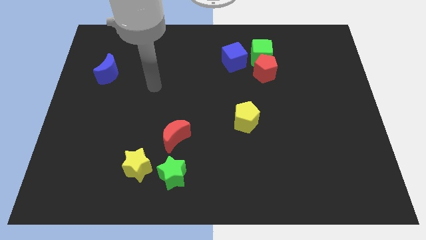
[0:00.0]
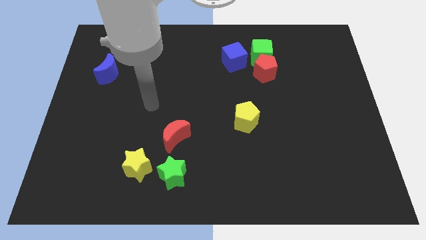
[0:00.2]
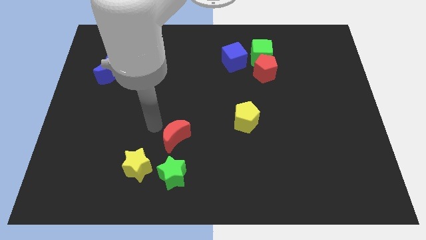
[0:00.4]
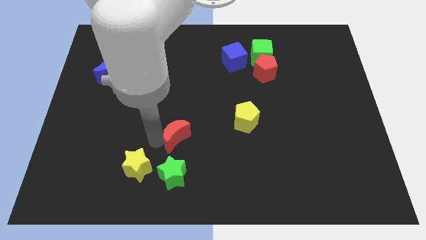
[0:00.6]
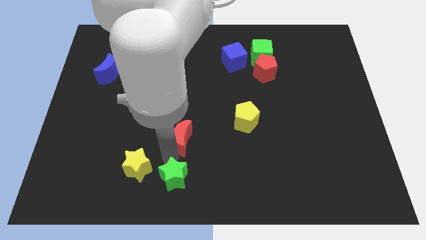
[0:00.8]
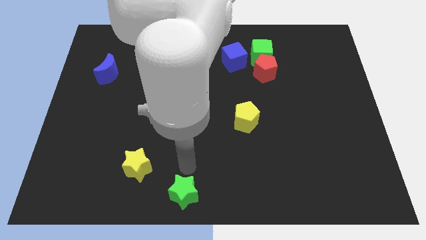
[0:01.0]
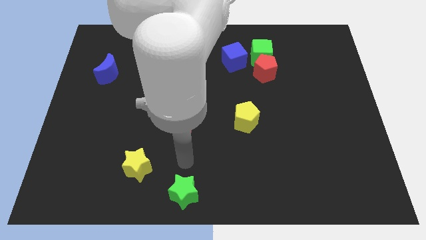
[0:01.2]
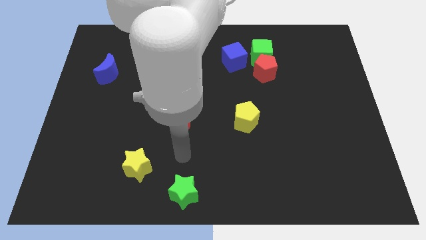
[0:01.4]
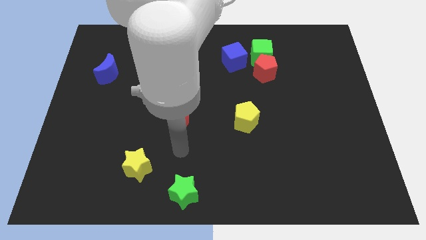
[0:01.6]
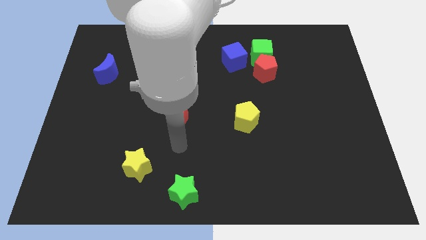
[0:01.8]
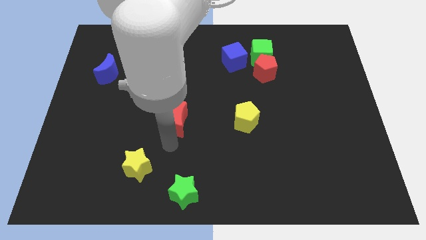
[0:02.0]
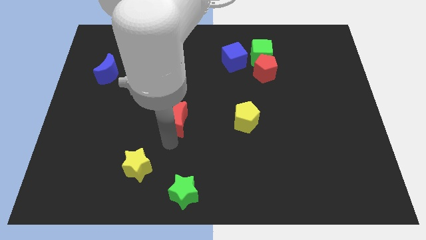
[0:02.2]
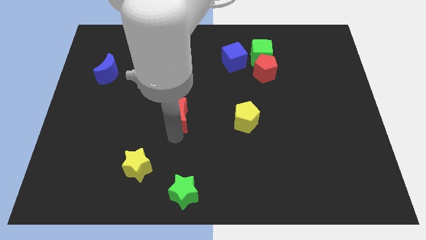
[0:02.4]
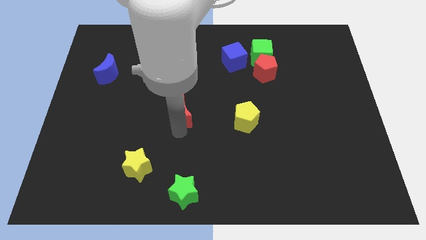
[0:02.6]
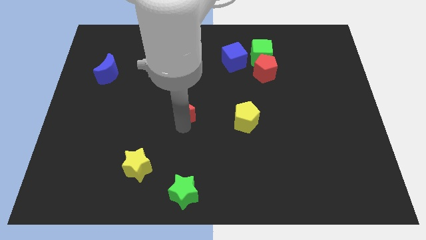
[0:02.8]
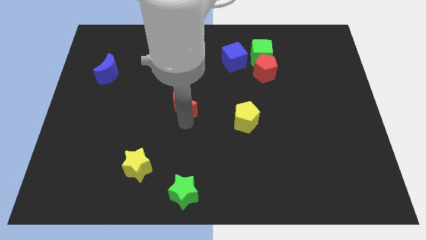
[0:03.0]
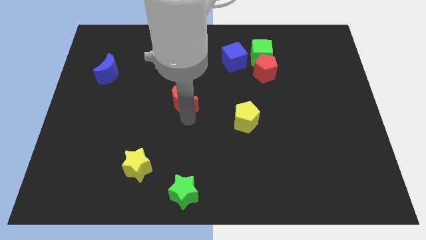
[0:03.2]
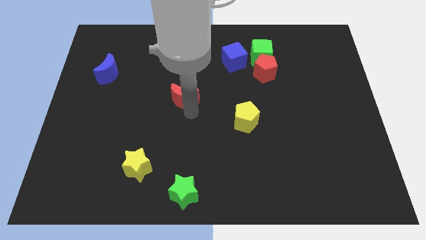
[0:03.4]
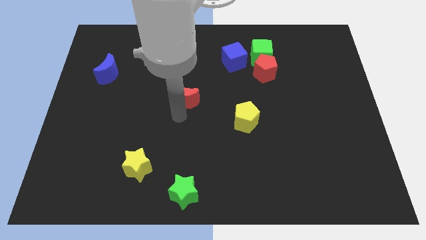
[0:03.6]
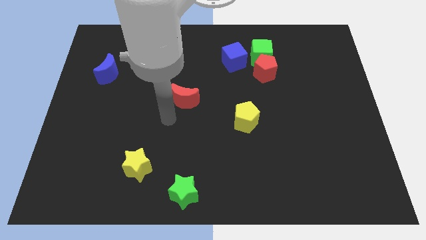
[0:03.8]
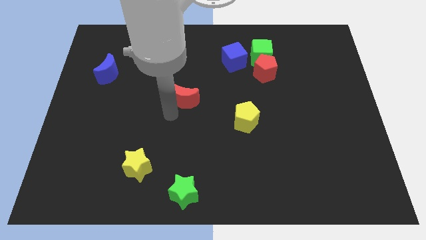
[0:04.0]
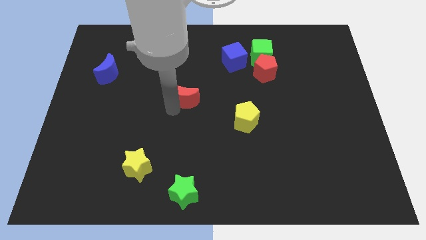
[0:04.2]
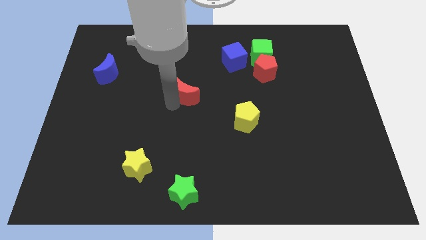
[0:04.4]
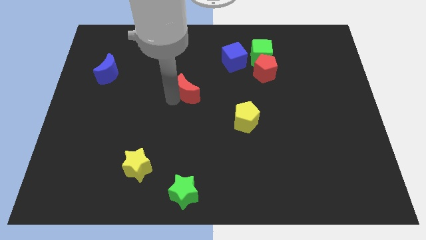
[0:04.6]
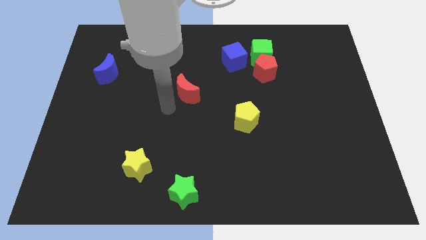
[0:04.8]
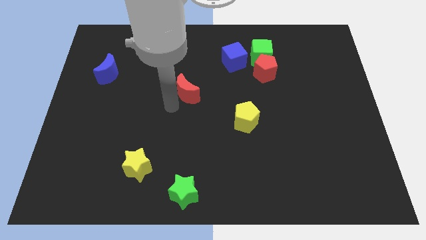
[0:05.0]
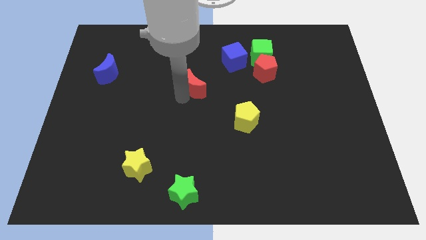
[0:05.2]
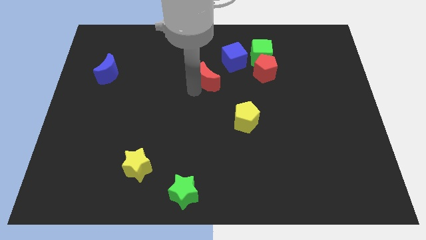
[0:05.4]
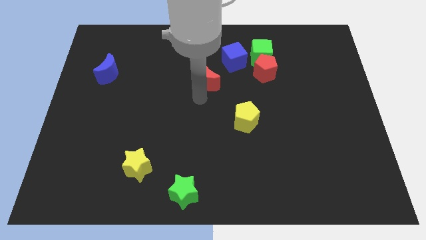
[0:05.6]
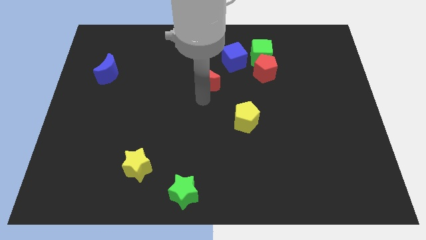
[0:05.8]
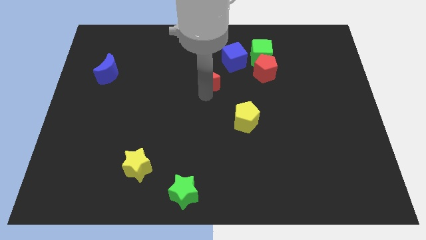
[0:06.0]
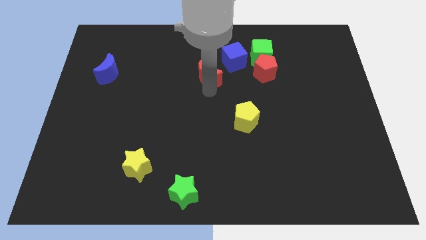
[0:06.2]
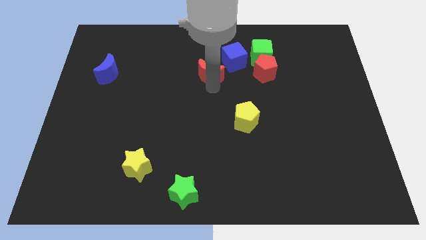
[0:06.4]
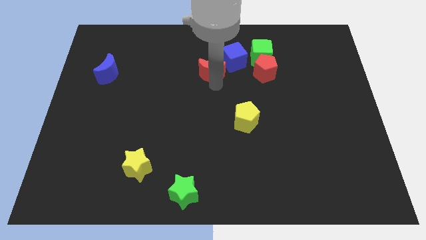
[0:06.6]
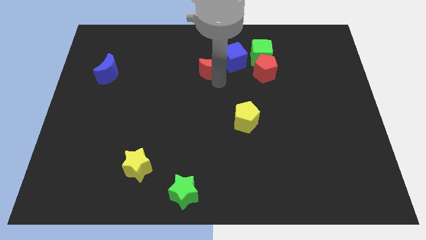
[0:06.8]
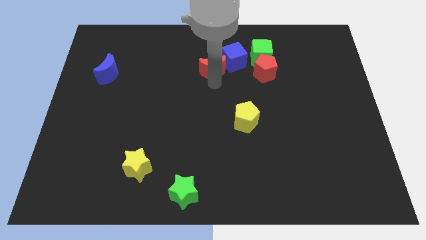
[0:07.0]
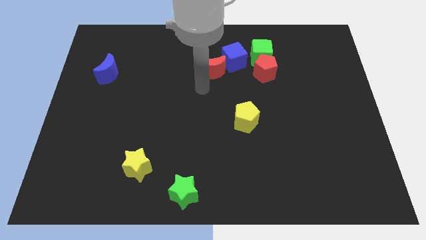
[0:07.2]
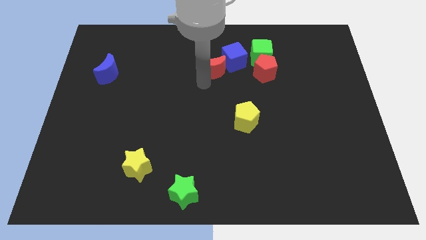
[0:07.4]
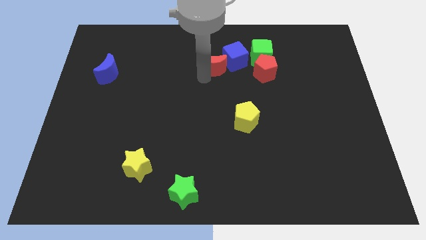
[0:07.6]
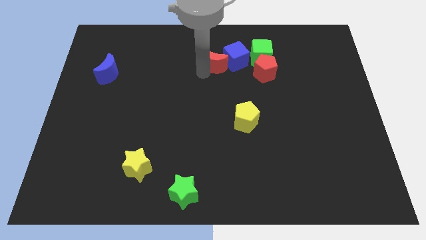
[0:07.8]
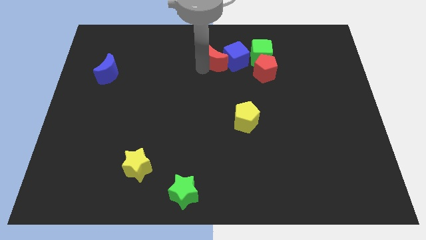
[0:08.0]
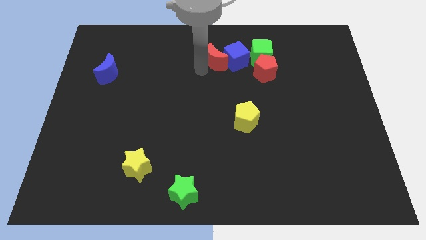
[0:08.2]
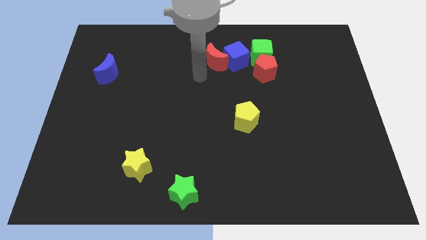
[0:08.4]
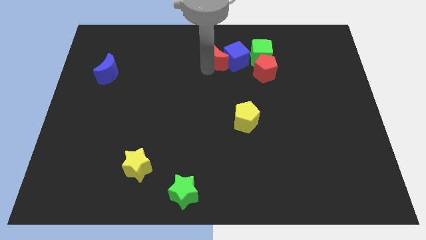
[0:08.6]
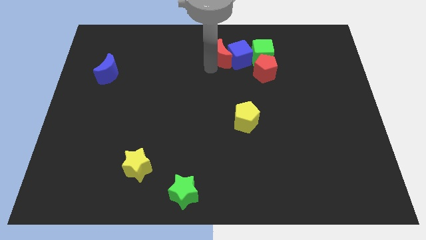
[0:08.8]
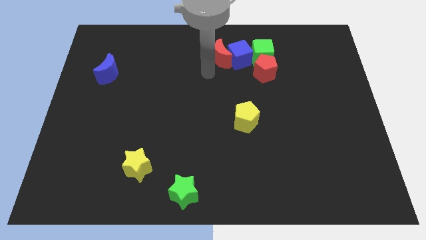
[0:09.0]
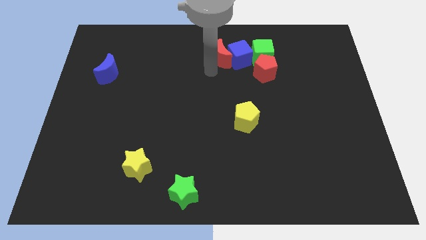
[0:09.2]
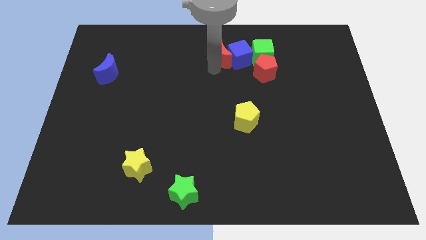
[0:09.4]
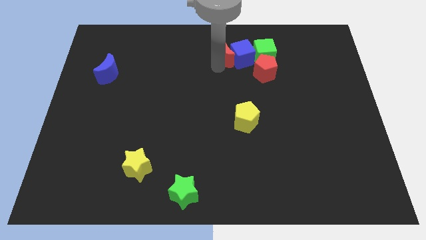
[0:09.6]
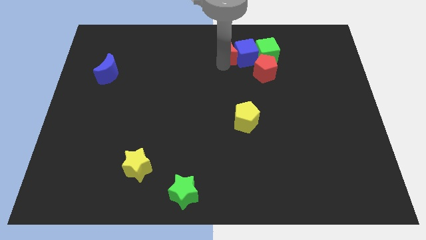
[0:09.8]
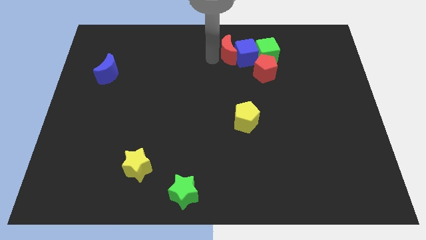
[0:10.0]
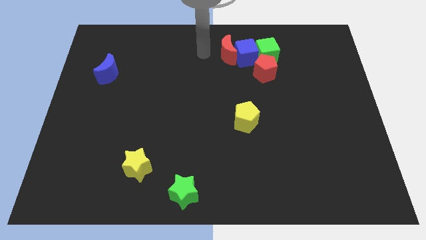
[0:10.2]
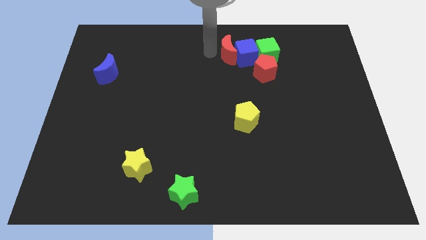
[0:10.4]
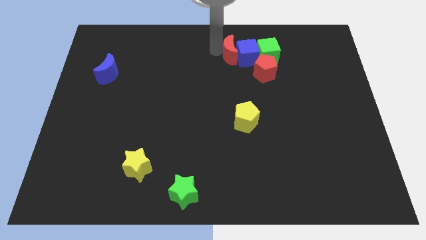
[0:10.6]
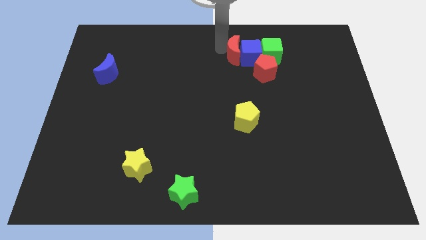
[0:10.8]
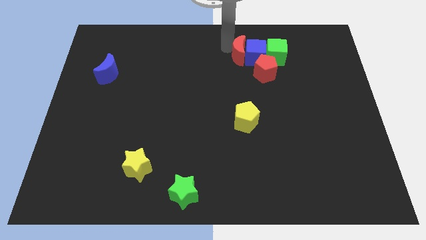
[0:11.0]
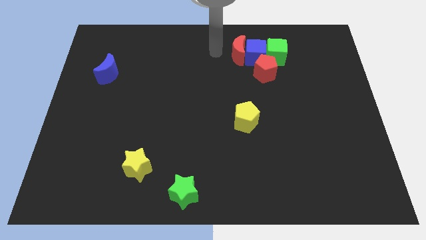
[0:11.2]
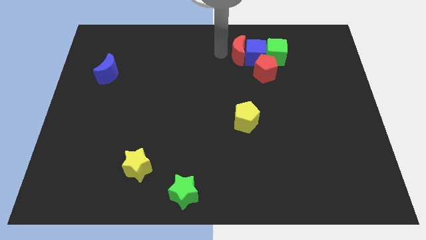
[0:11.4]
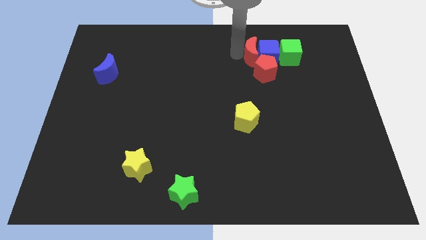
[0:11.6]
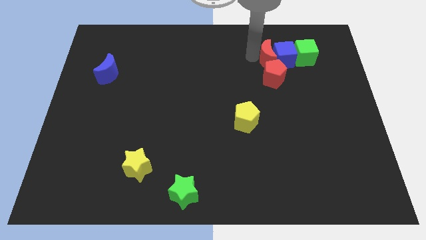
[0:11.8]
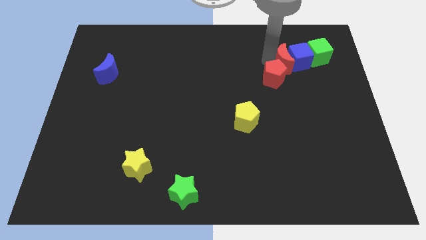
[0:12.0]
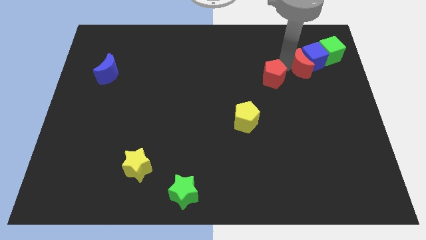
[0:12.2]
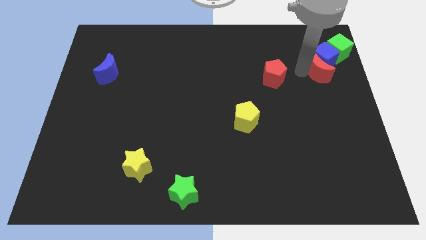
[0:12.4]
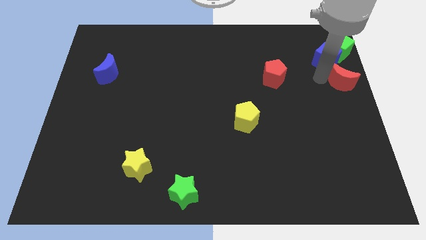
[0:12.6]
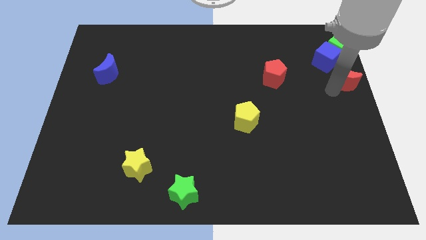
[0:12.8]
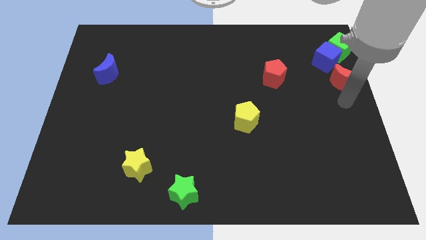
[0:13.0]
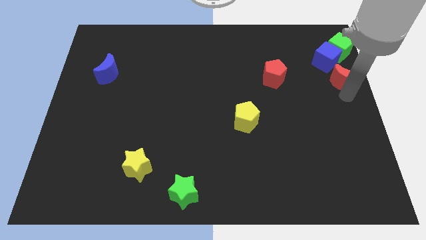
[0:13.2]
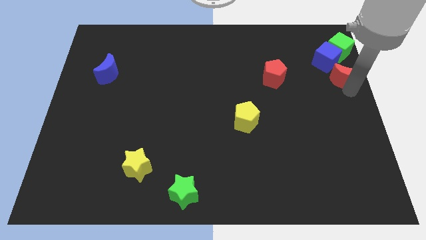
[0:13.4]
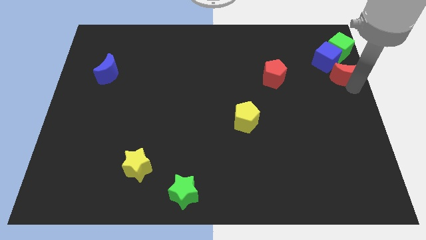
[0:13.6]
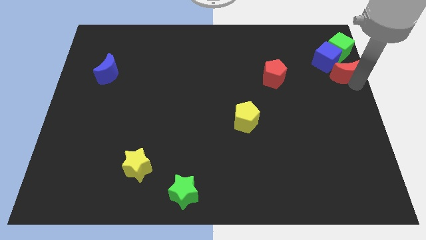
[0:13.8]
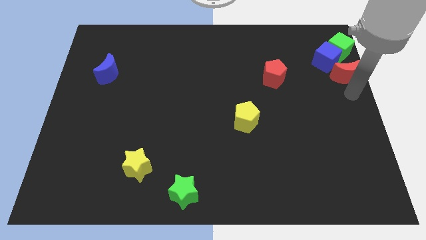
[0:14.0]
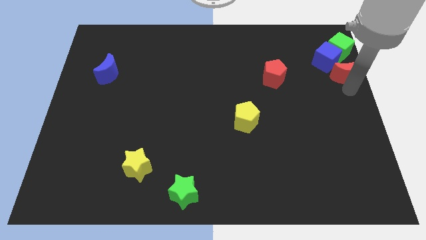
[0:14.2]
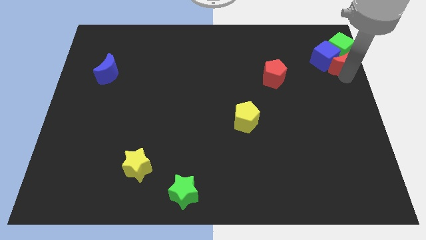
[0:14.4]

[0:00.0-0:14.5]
move the red moon close to the green cube
